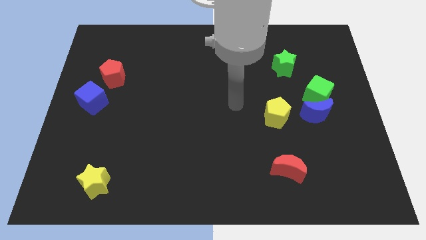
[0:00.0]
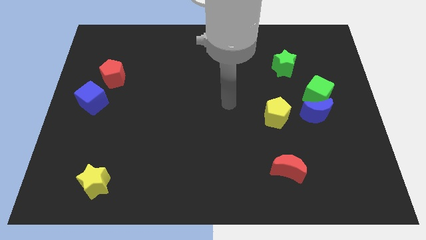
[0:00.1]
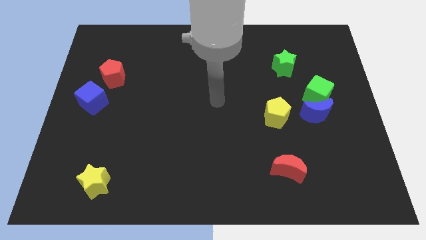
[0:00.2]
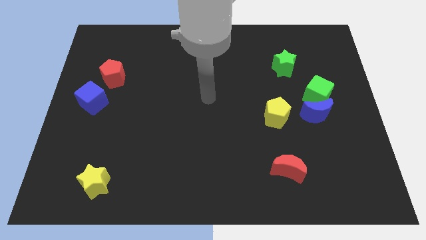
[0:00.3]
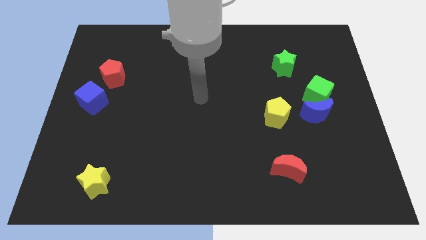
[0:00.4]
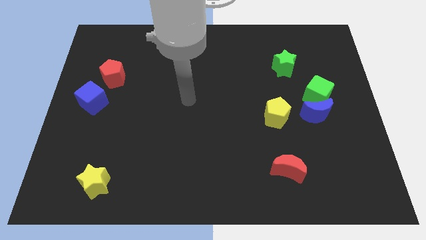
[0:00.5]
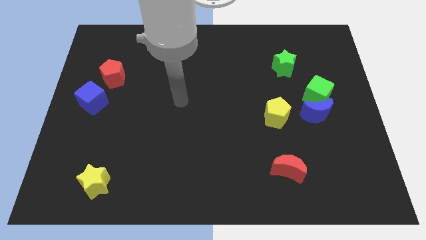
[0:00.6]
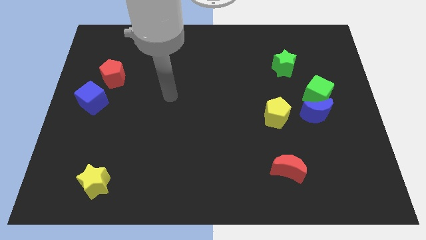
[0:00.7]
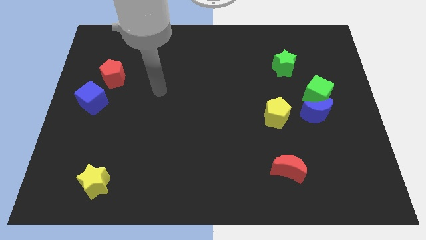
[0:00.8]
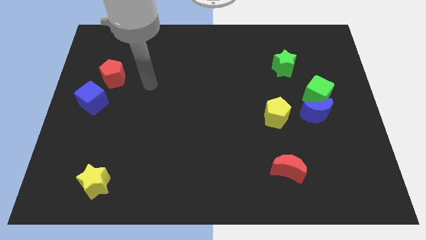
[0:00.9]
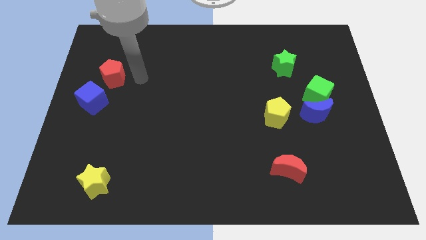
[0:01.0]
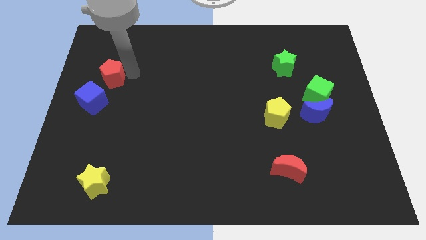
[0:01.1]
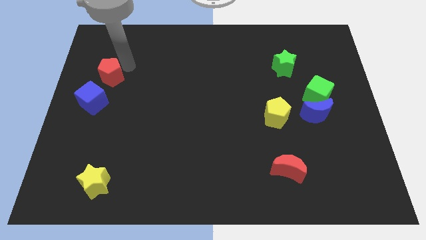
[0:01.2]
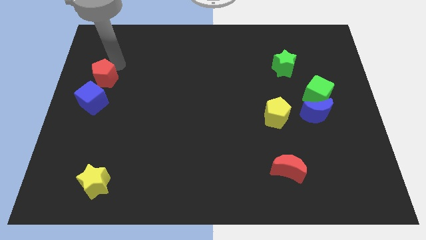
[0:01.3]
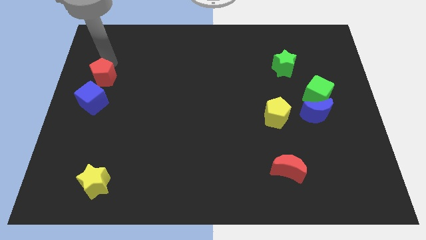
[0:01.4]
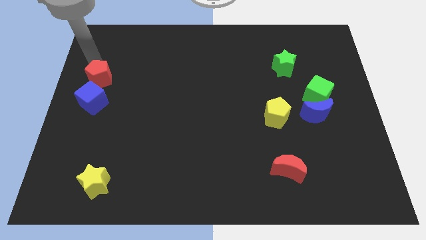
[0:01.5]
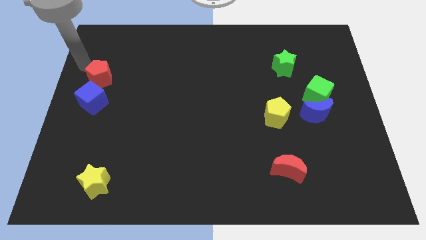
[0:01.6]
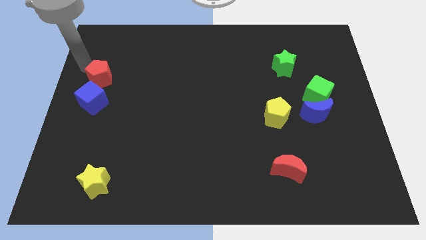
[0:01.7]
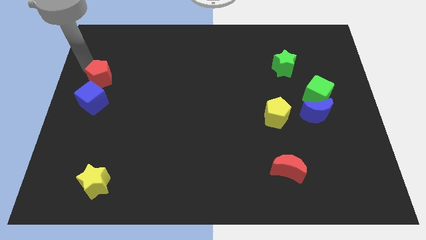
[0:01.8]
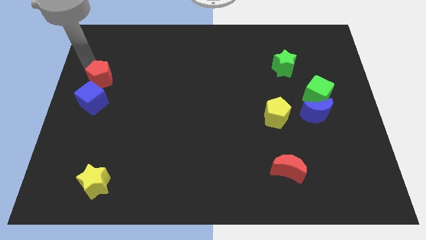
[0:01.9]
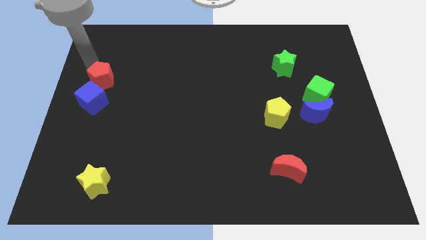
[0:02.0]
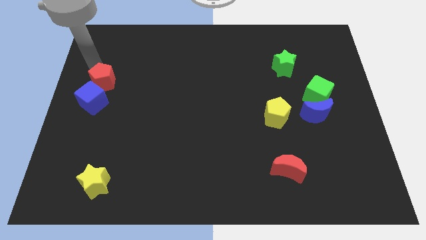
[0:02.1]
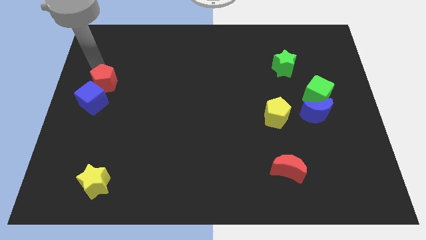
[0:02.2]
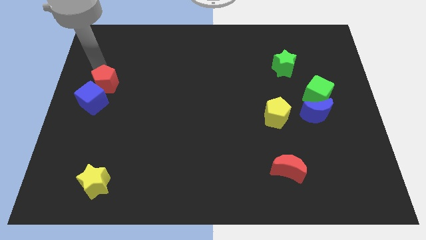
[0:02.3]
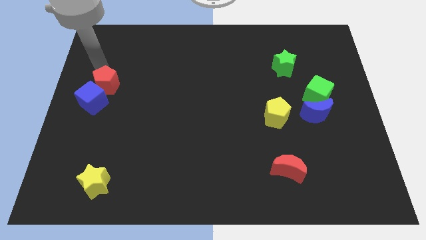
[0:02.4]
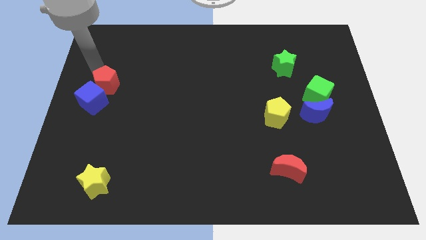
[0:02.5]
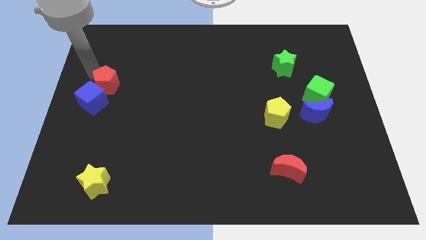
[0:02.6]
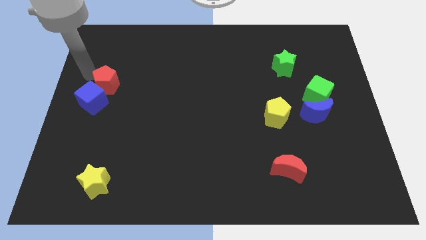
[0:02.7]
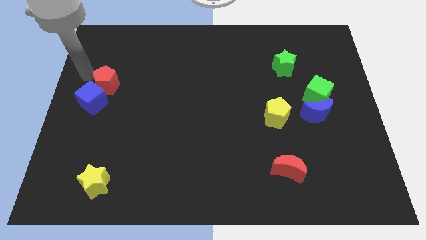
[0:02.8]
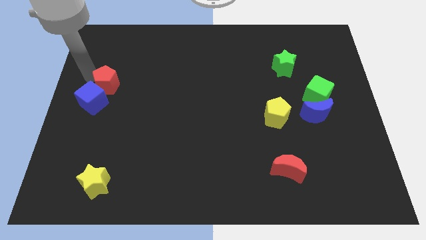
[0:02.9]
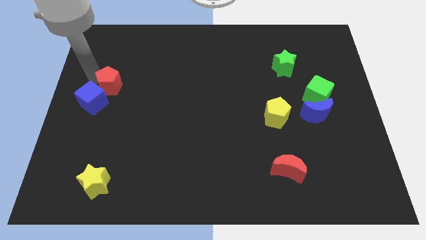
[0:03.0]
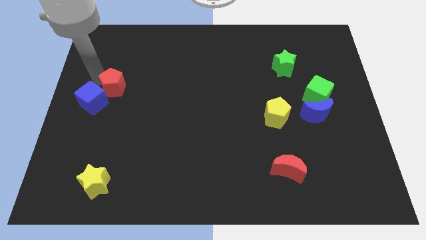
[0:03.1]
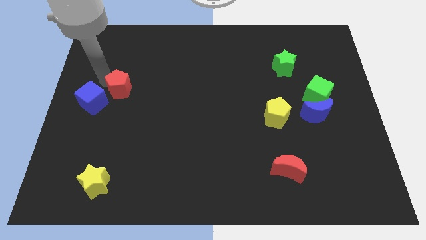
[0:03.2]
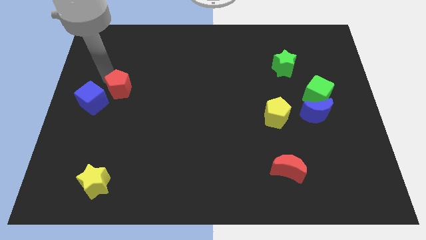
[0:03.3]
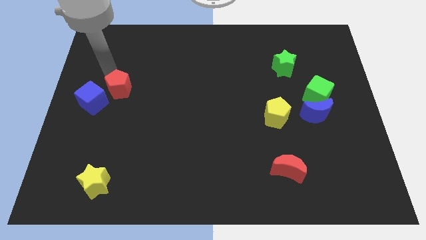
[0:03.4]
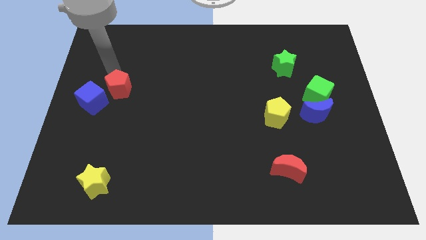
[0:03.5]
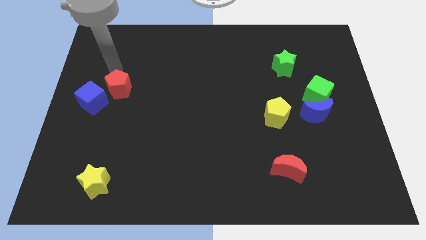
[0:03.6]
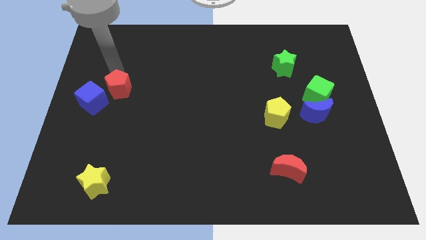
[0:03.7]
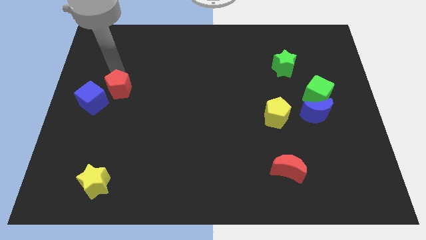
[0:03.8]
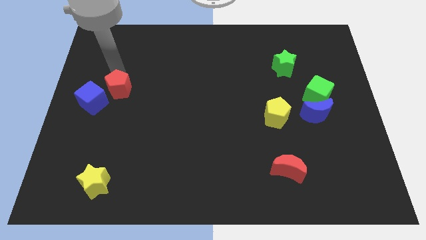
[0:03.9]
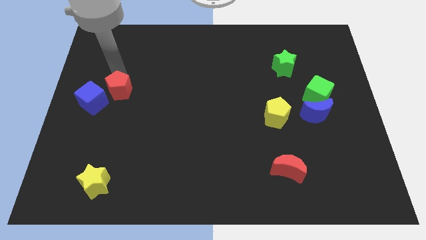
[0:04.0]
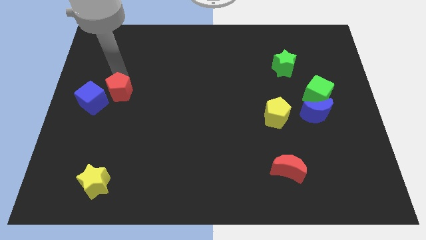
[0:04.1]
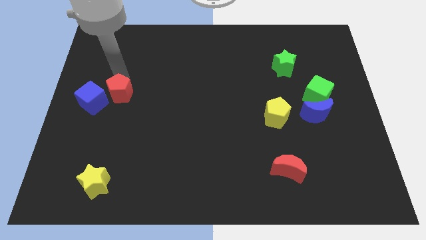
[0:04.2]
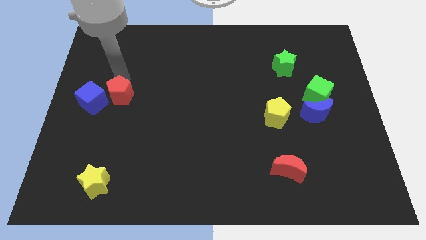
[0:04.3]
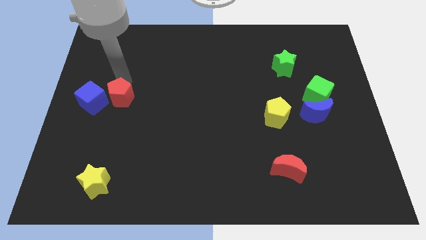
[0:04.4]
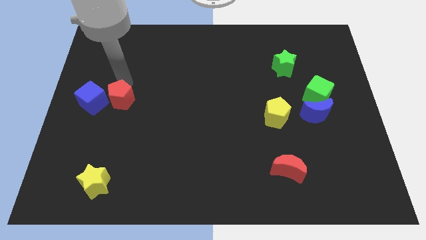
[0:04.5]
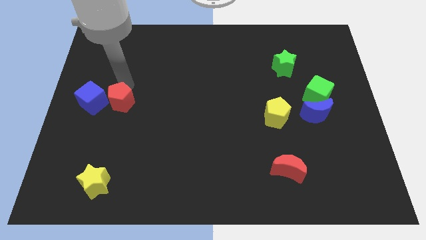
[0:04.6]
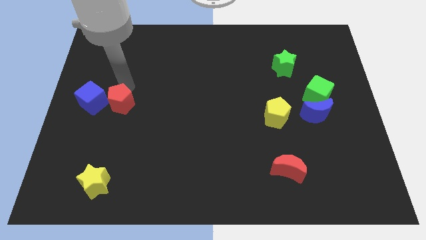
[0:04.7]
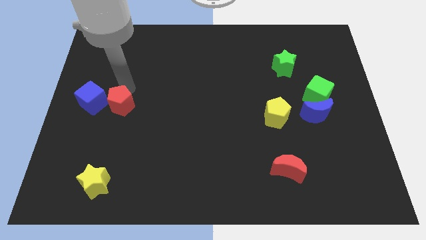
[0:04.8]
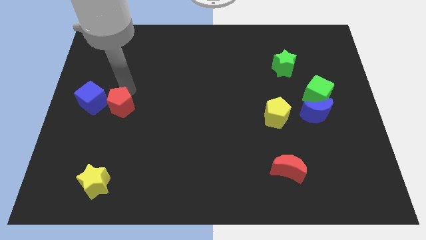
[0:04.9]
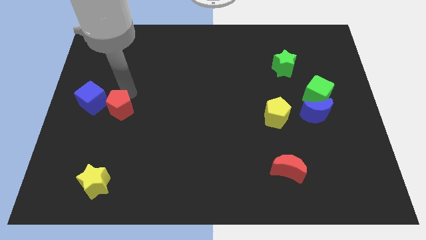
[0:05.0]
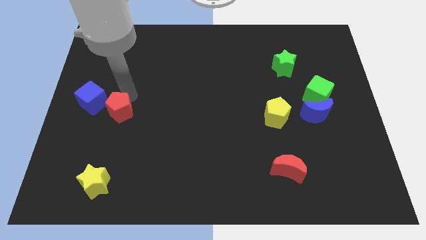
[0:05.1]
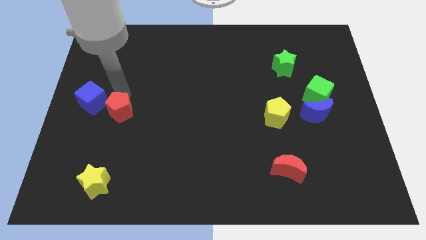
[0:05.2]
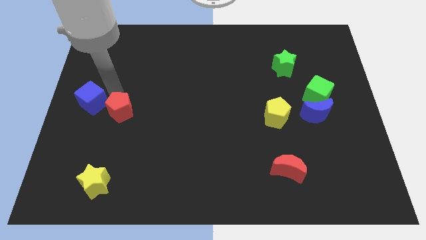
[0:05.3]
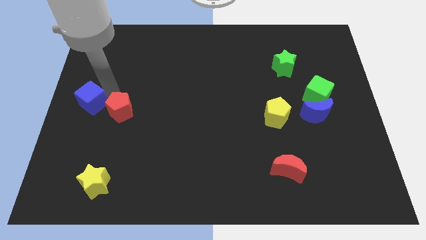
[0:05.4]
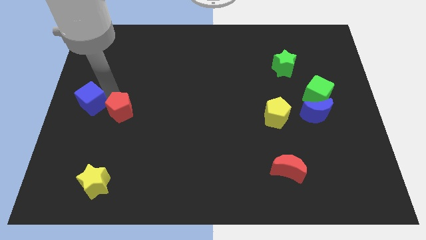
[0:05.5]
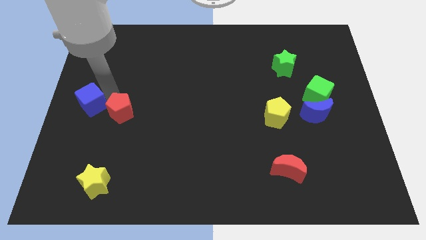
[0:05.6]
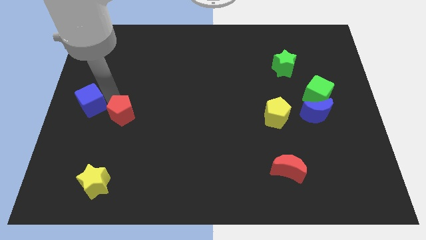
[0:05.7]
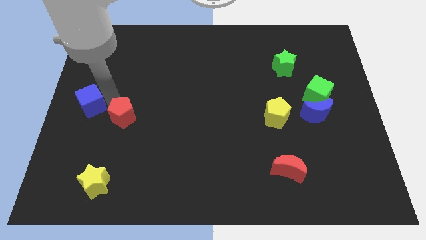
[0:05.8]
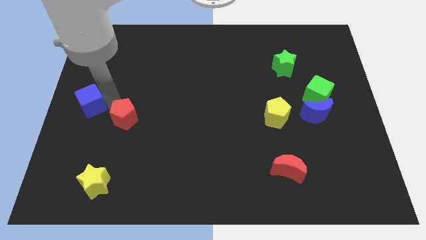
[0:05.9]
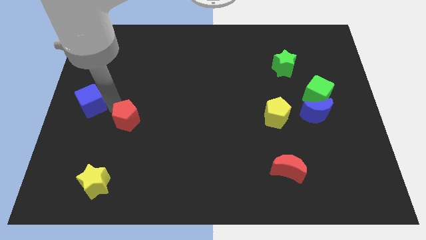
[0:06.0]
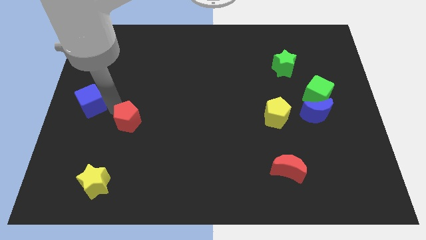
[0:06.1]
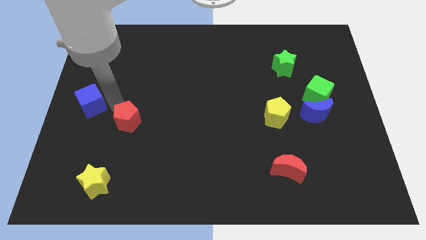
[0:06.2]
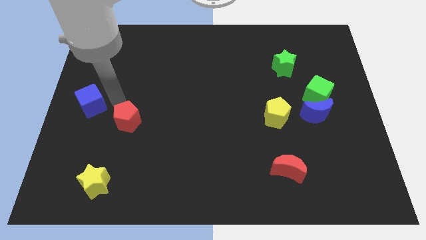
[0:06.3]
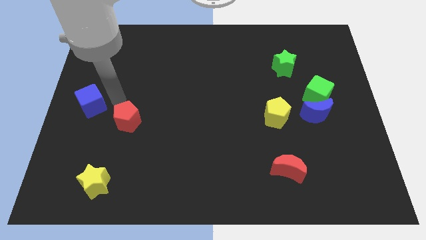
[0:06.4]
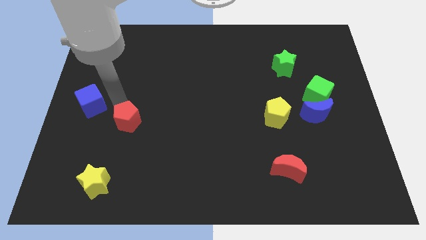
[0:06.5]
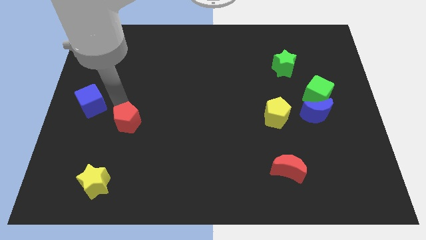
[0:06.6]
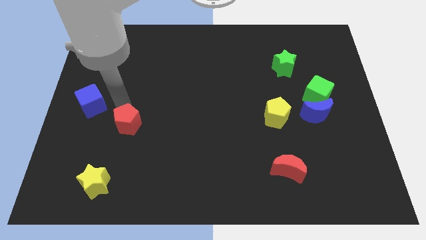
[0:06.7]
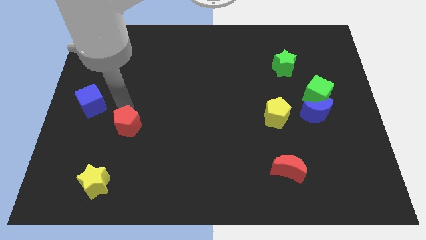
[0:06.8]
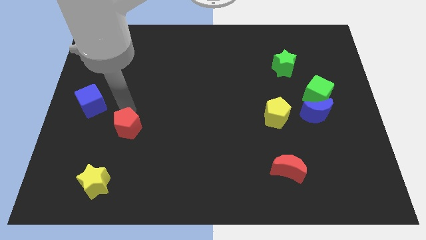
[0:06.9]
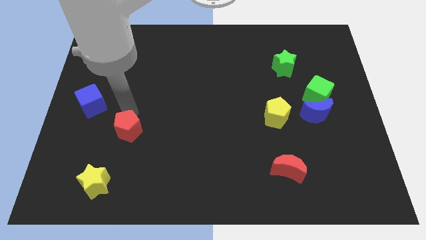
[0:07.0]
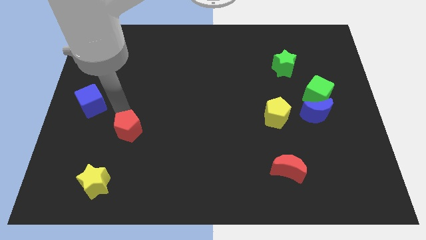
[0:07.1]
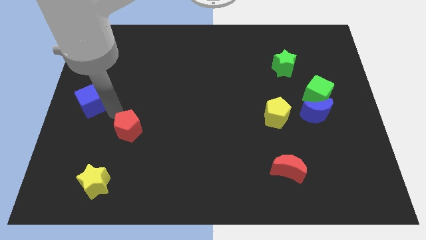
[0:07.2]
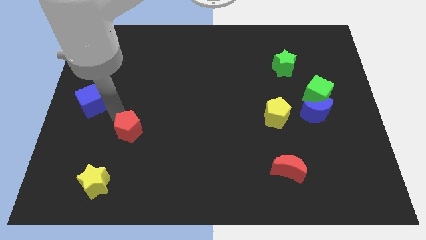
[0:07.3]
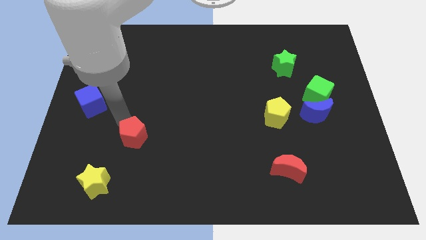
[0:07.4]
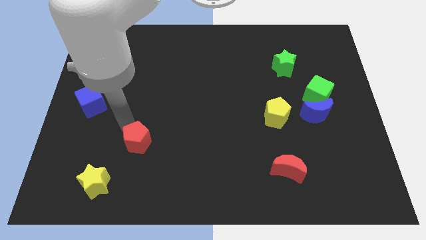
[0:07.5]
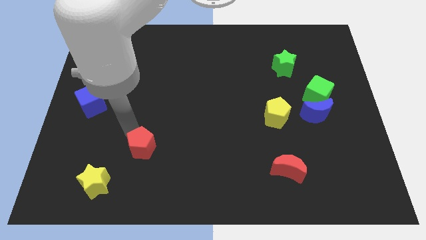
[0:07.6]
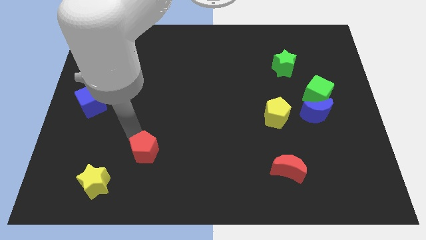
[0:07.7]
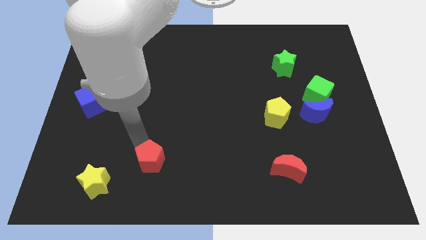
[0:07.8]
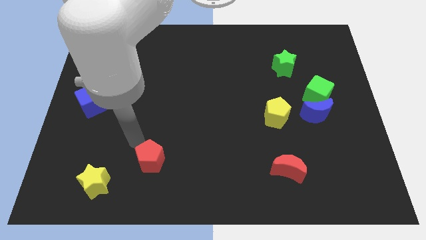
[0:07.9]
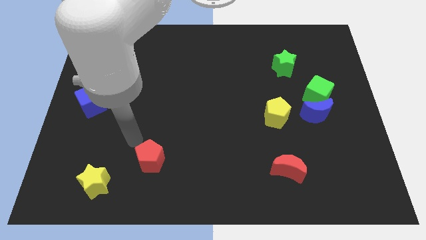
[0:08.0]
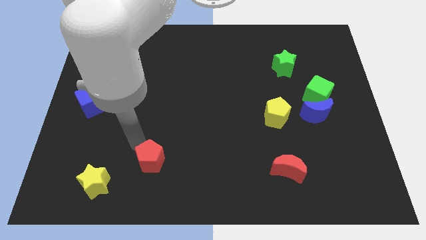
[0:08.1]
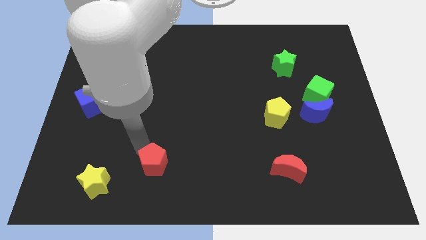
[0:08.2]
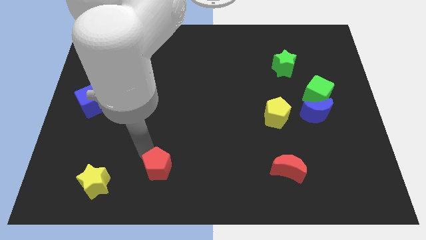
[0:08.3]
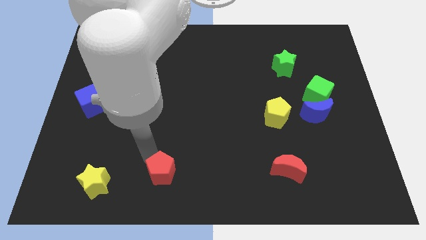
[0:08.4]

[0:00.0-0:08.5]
slide the red pentagon to the bottom
